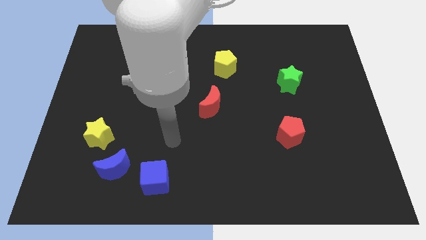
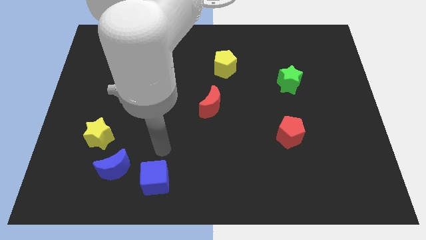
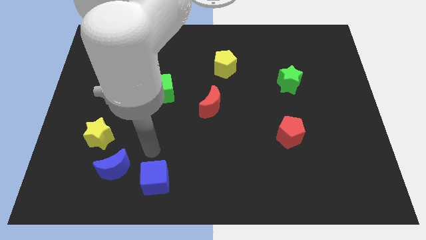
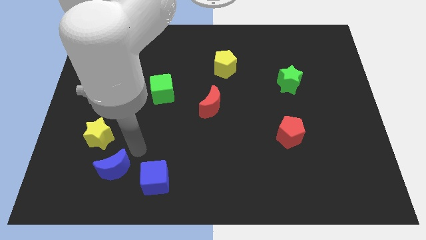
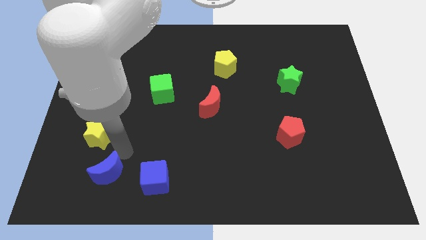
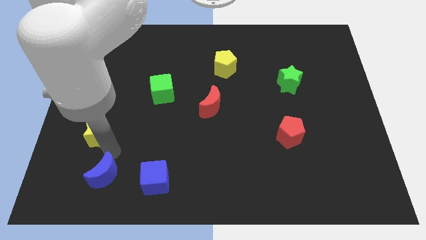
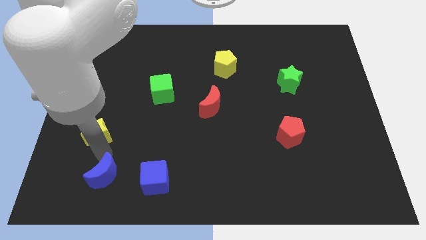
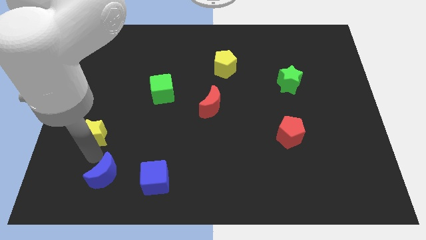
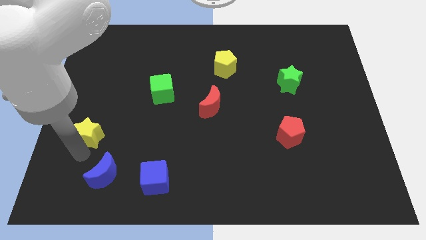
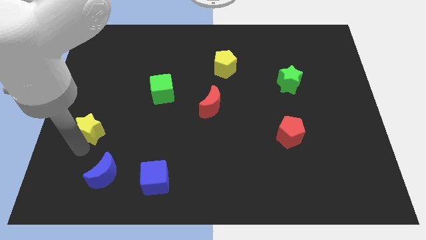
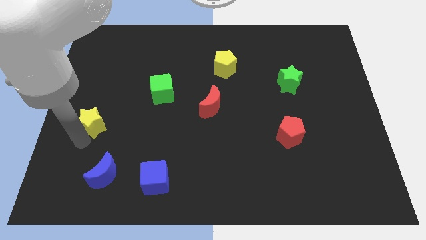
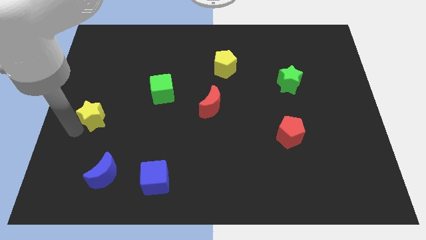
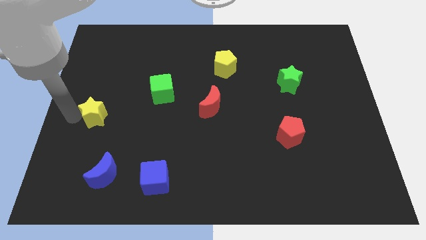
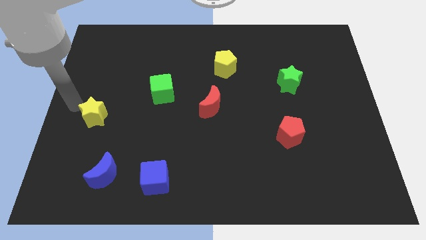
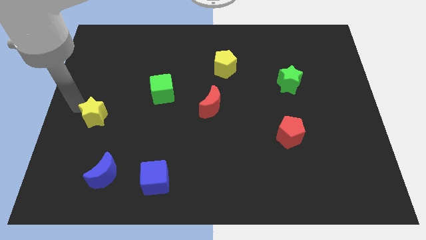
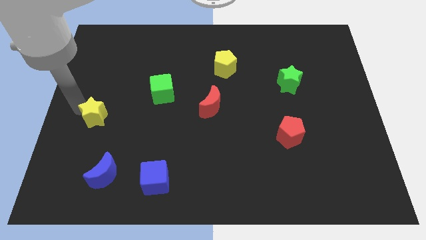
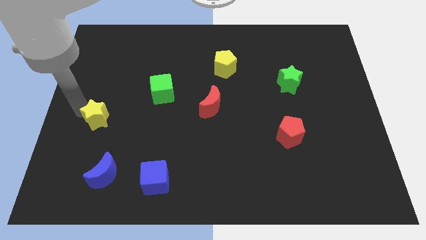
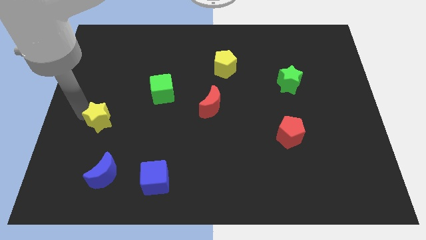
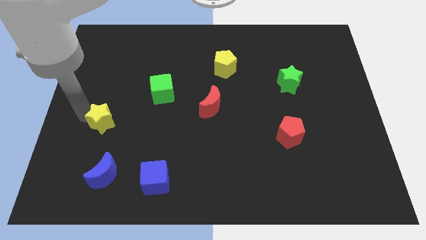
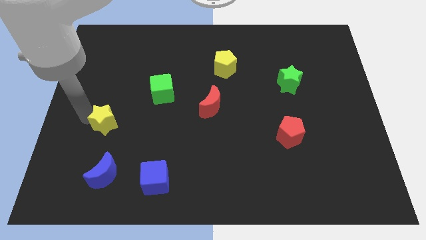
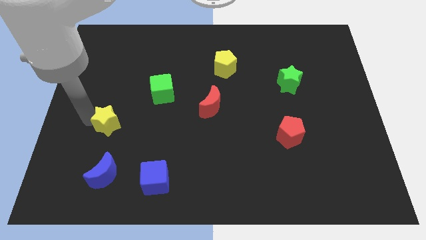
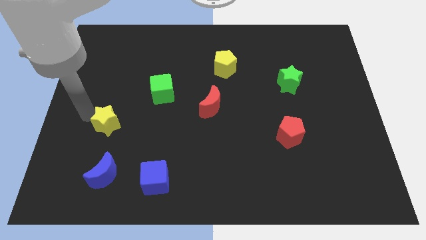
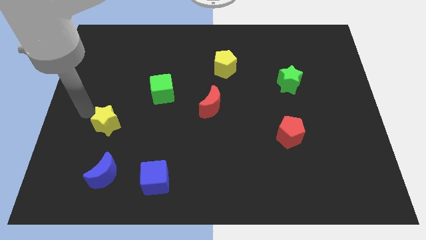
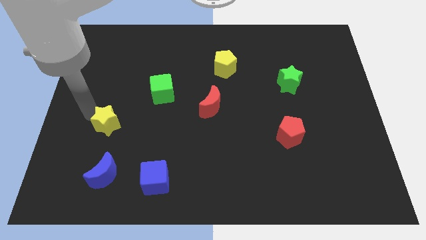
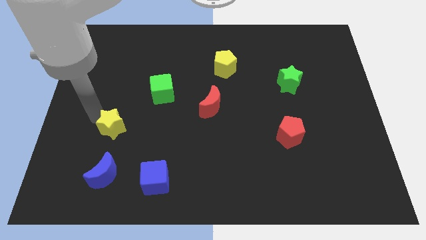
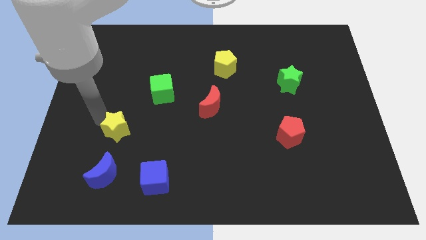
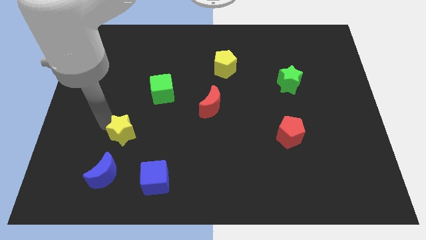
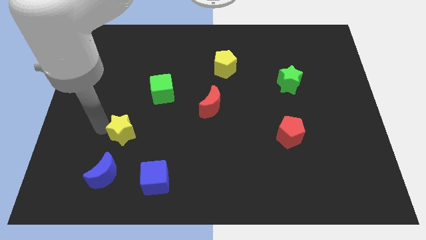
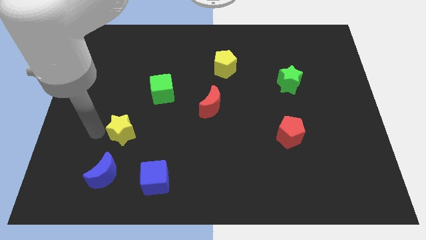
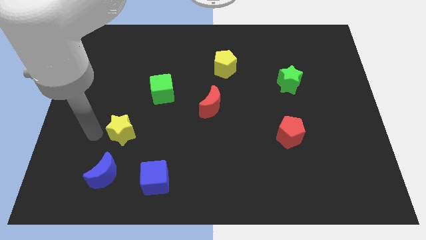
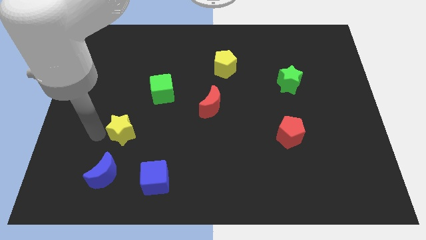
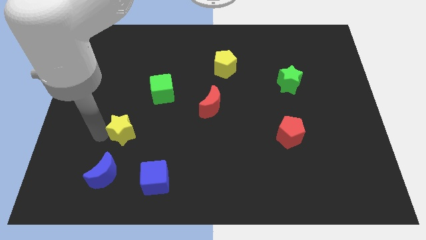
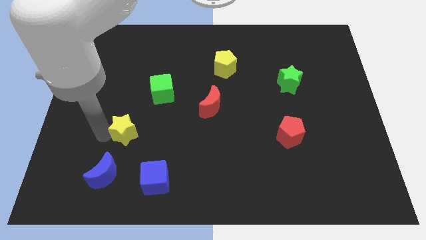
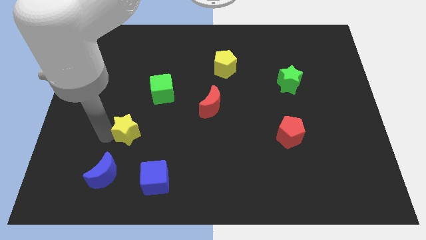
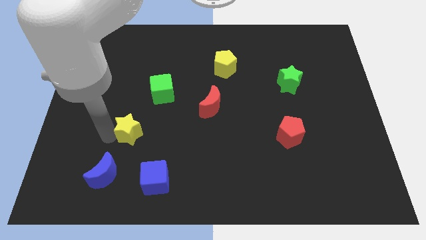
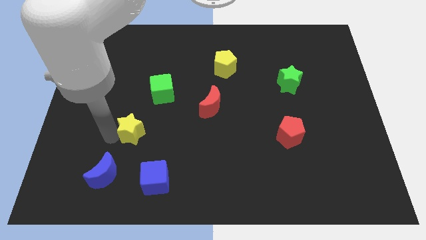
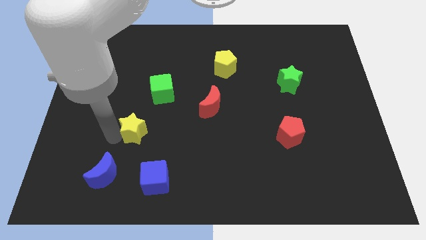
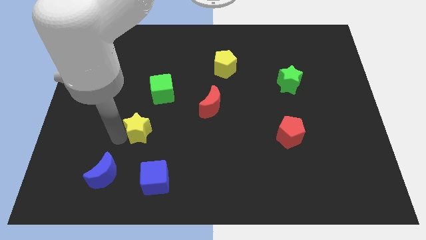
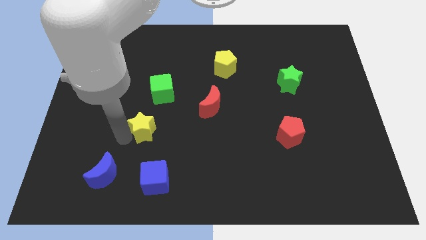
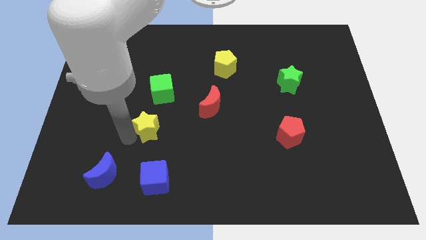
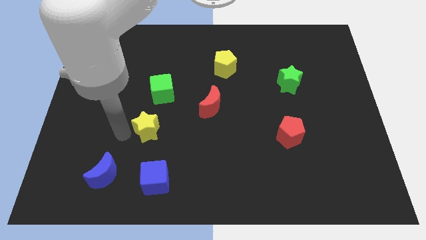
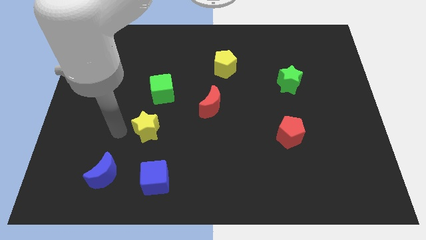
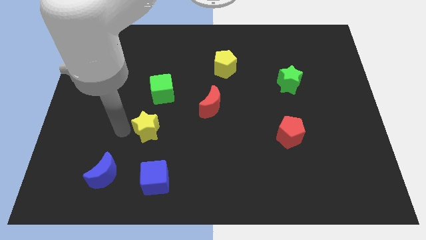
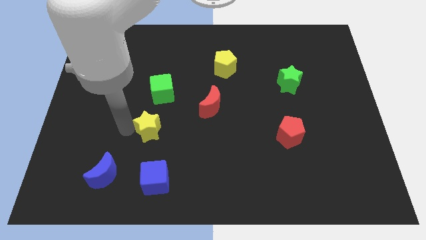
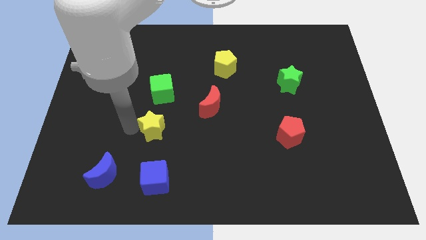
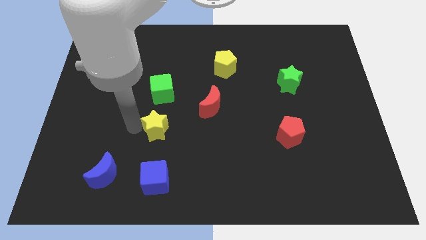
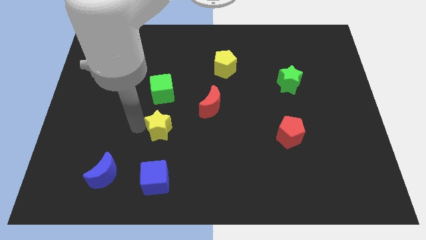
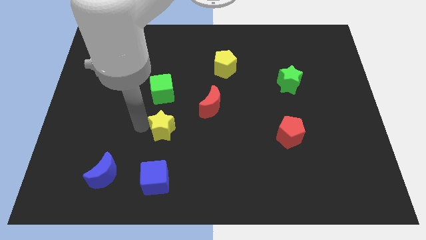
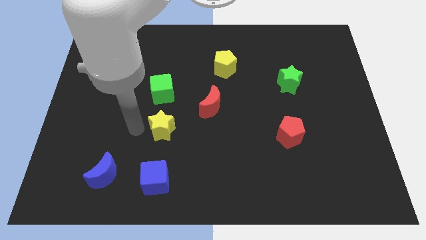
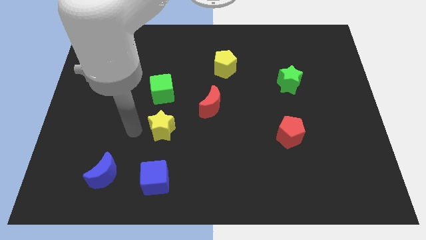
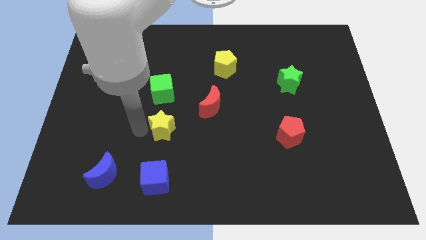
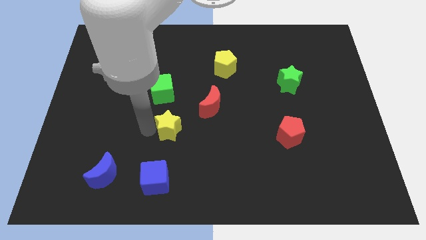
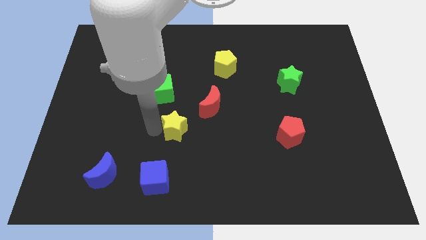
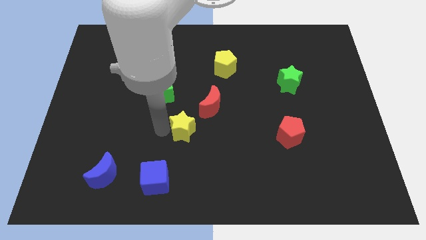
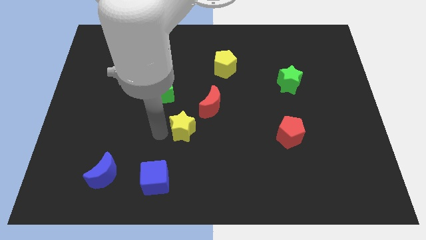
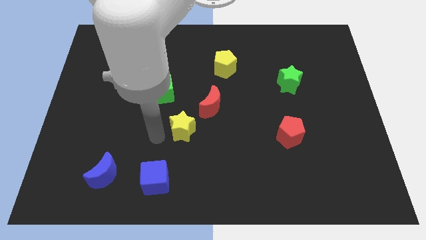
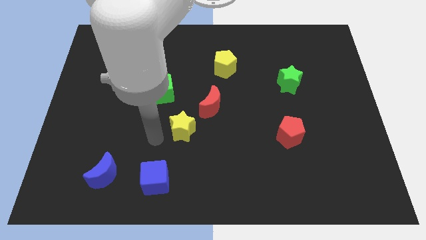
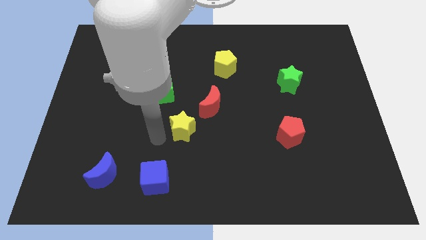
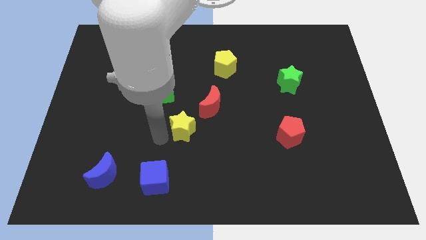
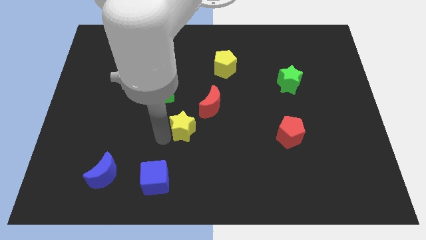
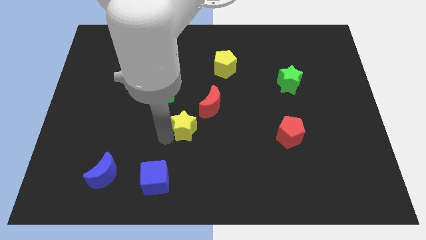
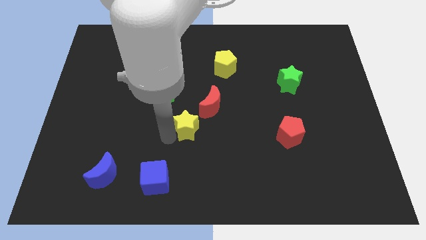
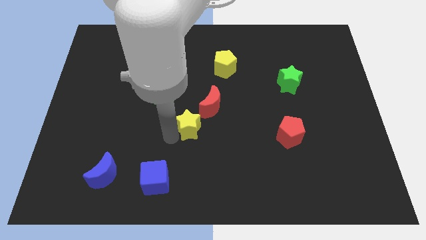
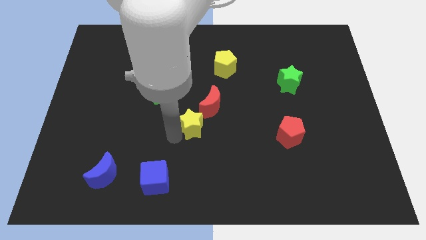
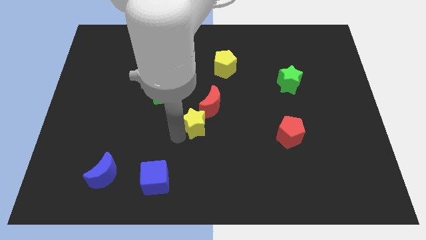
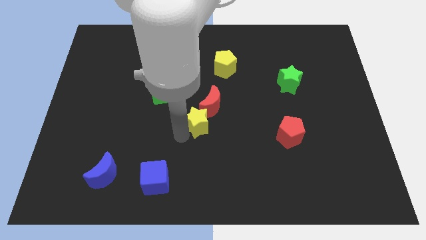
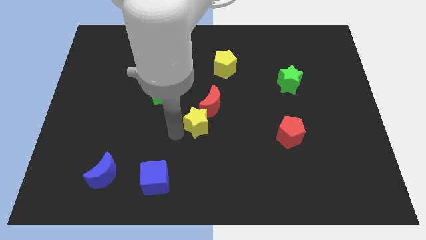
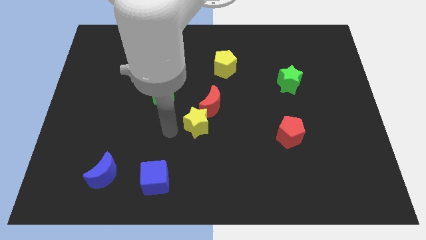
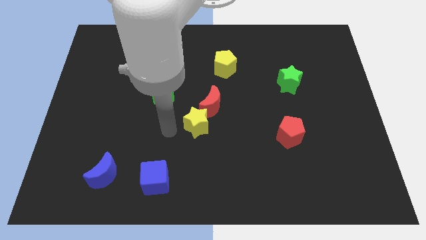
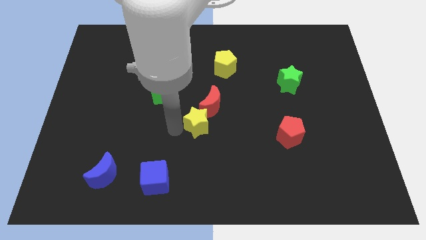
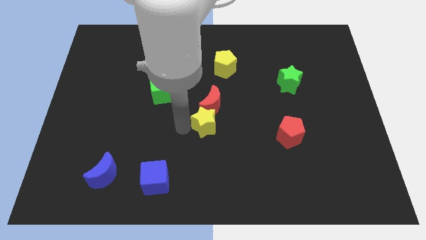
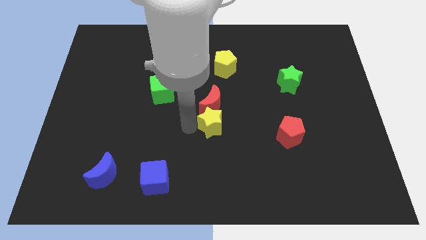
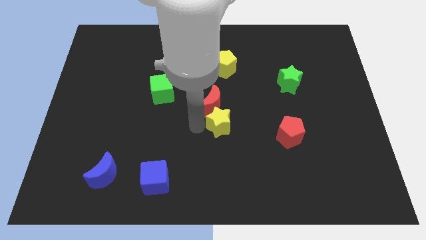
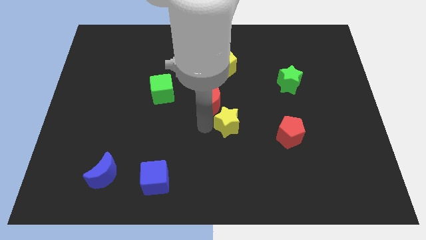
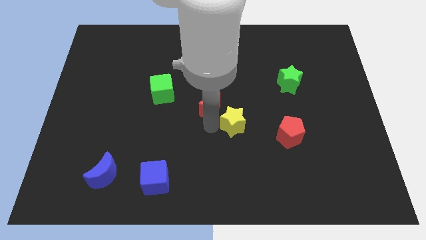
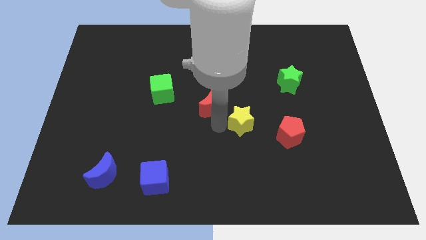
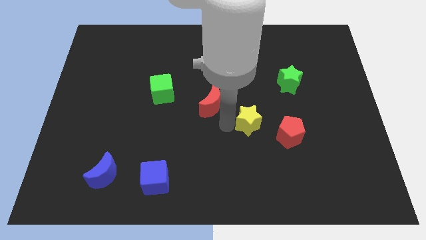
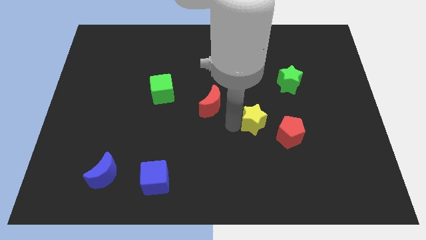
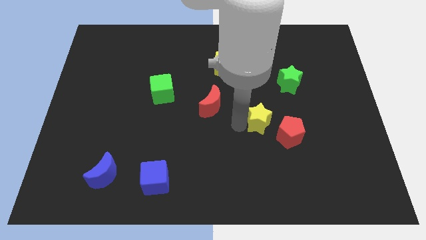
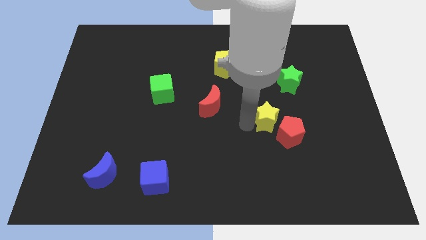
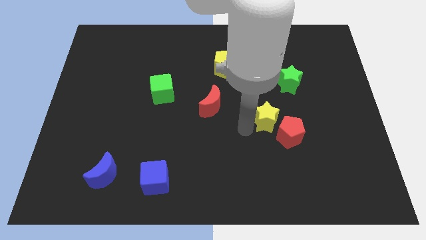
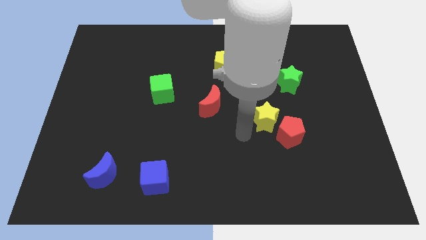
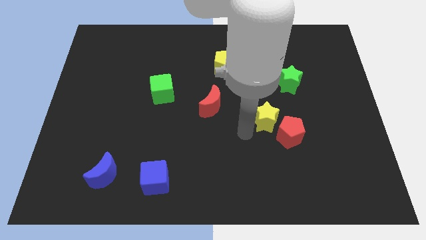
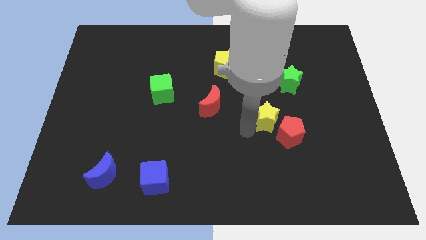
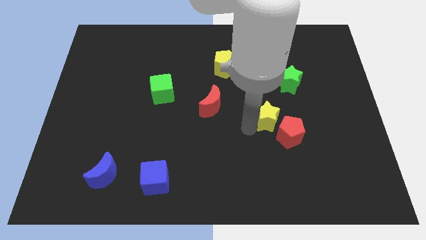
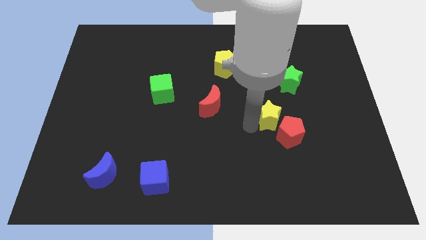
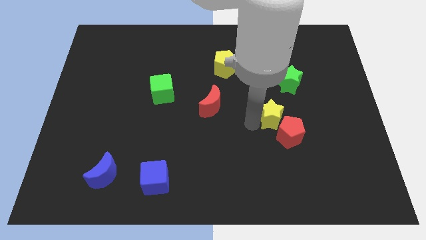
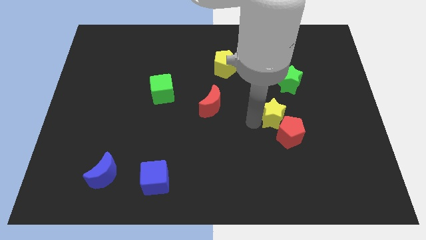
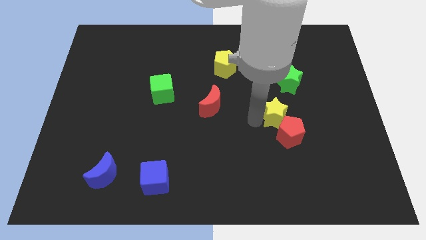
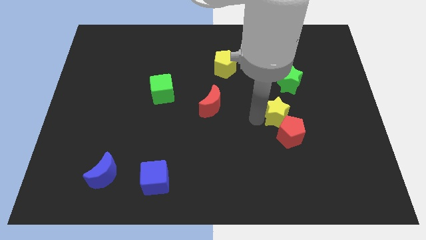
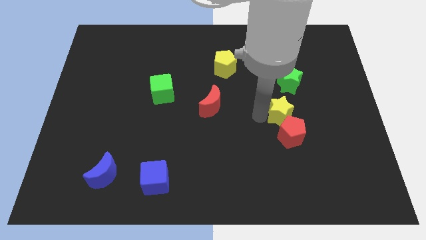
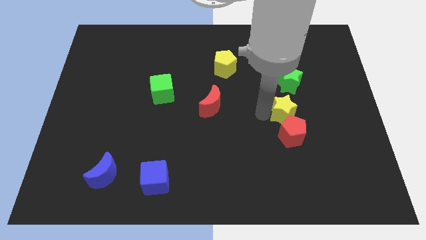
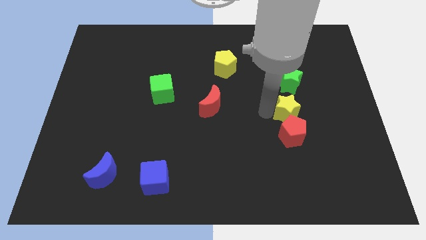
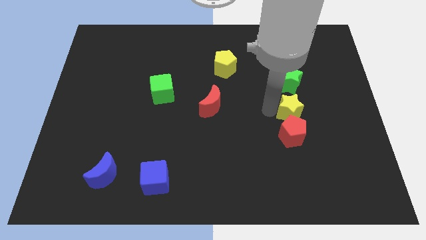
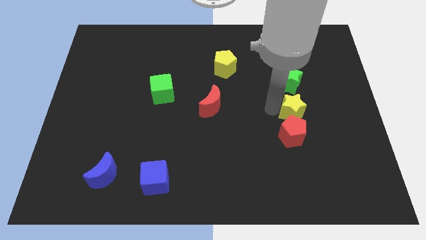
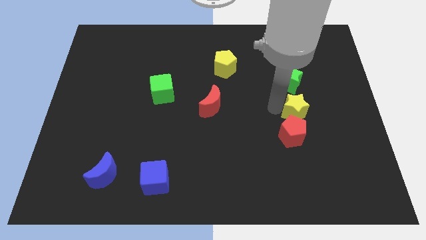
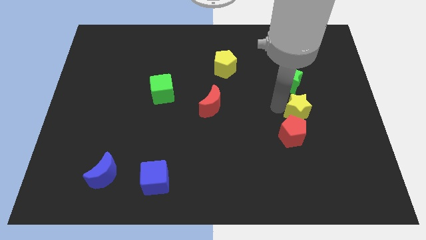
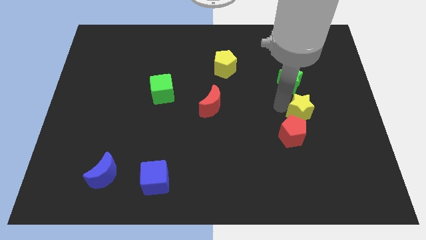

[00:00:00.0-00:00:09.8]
push the yellow star to the bottom right of the green star
